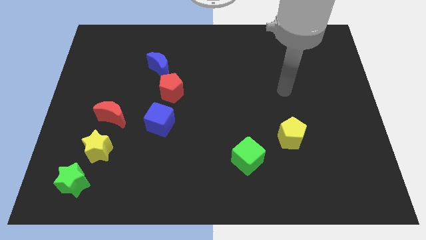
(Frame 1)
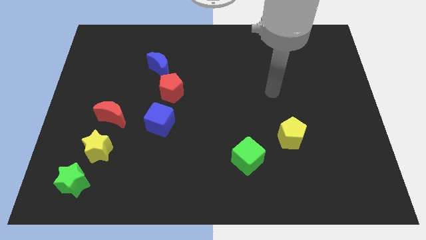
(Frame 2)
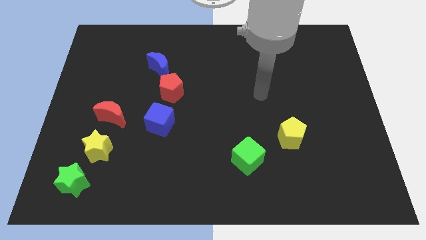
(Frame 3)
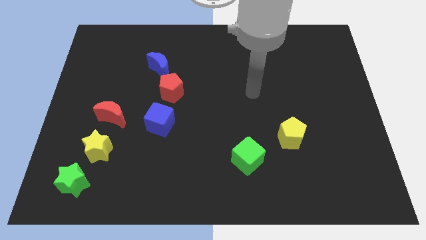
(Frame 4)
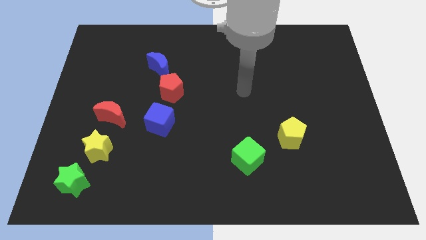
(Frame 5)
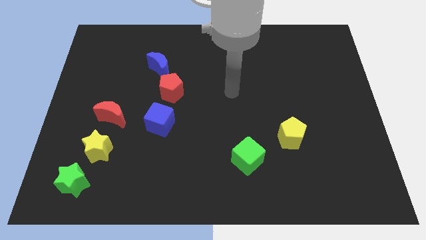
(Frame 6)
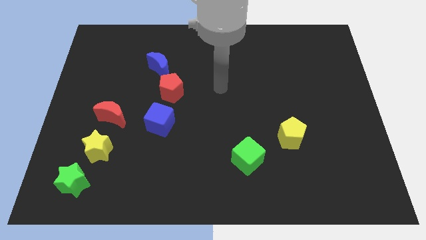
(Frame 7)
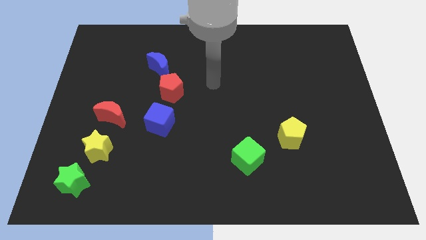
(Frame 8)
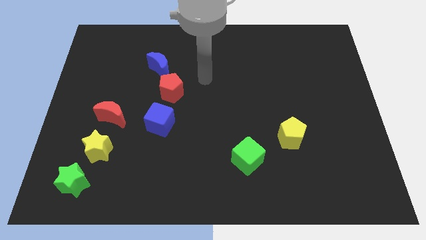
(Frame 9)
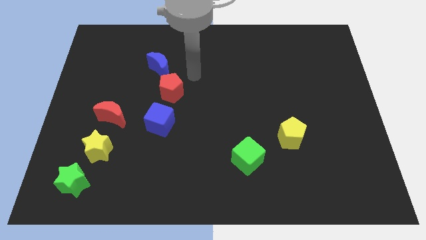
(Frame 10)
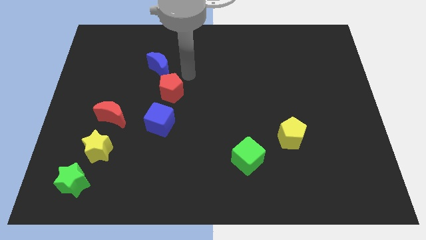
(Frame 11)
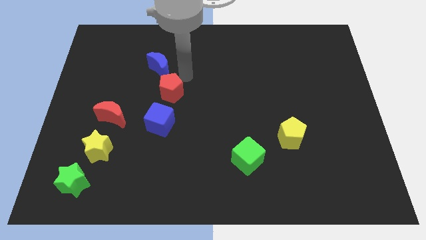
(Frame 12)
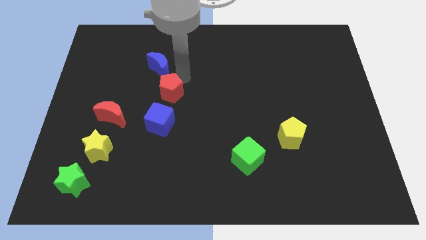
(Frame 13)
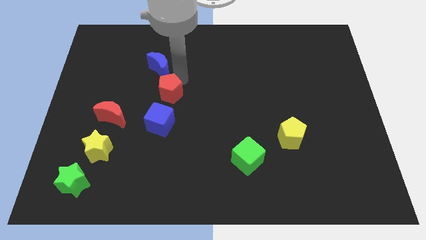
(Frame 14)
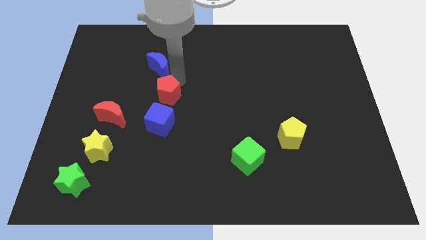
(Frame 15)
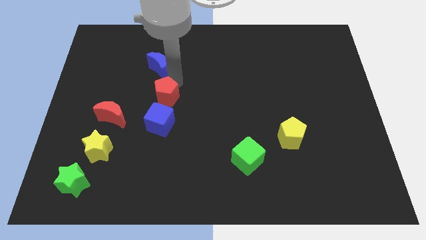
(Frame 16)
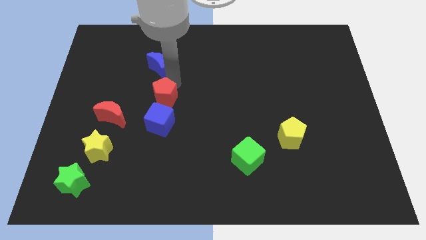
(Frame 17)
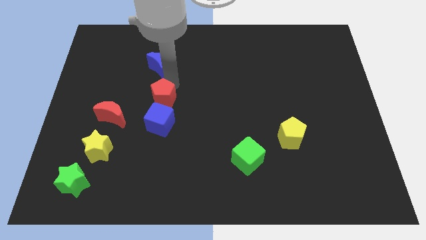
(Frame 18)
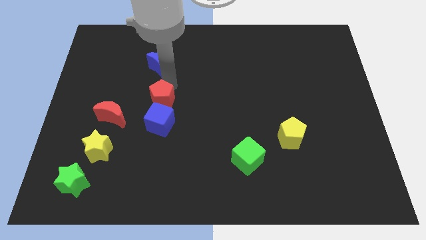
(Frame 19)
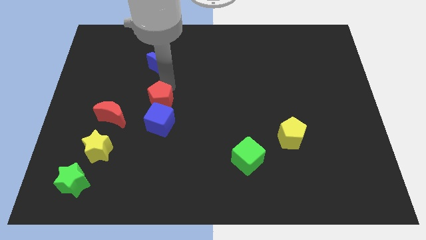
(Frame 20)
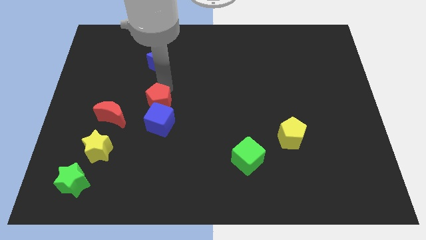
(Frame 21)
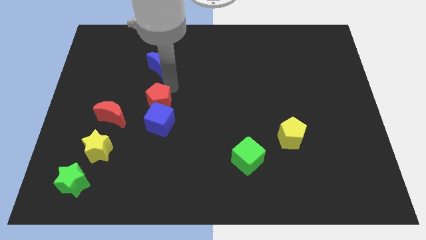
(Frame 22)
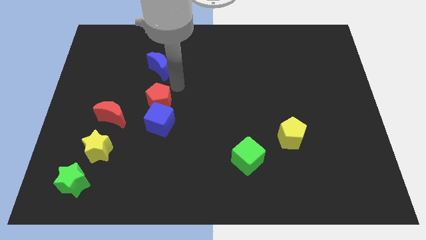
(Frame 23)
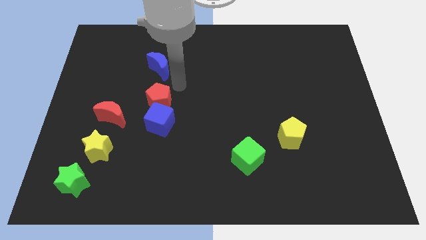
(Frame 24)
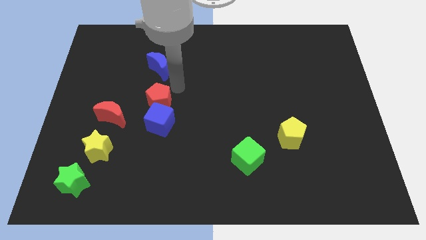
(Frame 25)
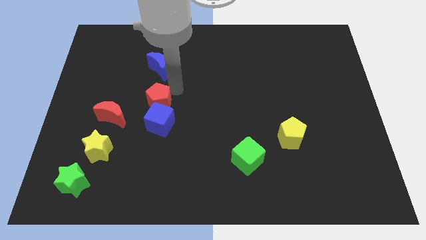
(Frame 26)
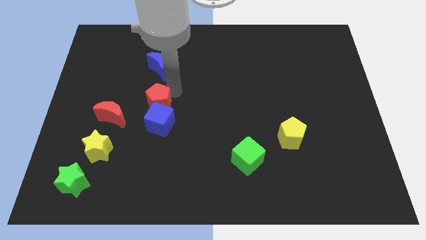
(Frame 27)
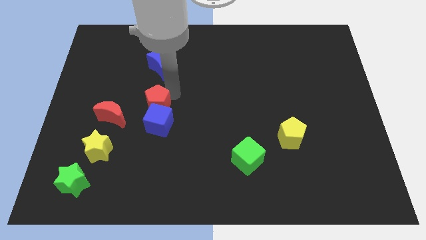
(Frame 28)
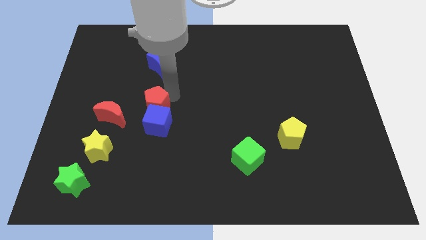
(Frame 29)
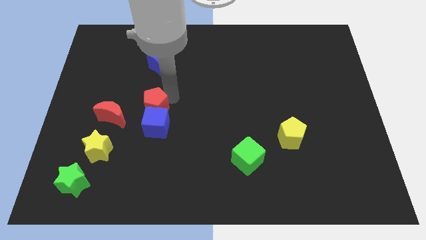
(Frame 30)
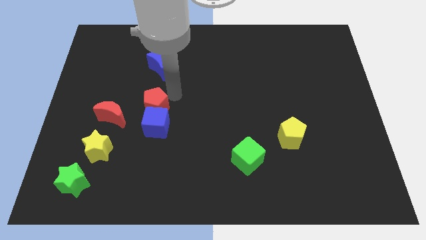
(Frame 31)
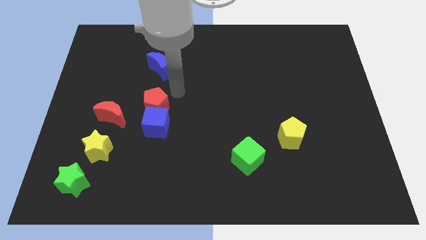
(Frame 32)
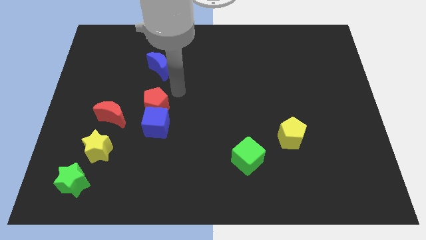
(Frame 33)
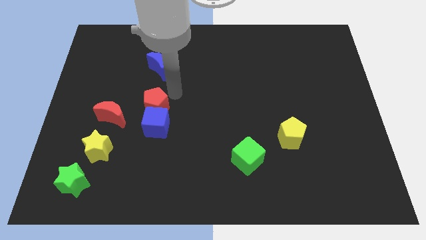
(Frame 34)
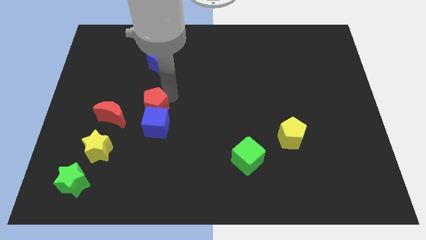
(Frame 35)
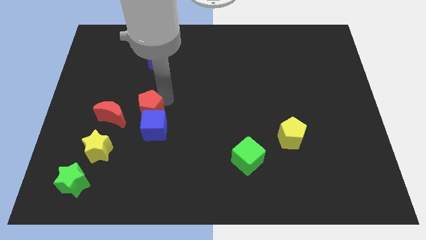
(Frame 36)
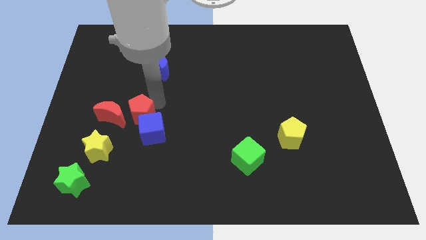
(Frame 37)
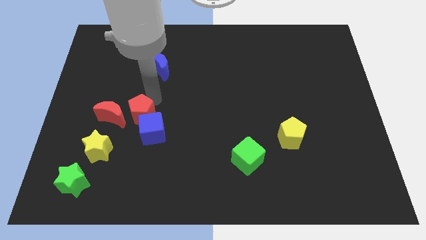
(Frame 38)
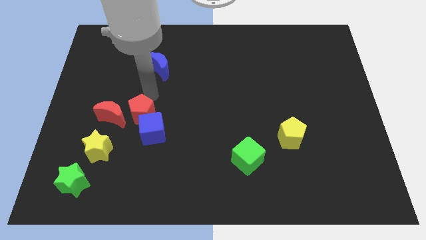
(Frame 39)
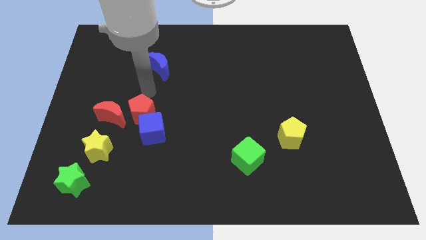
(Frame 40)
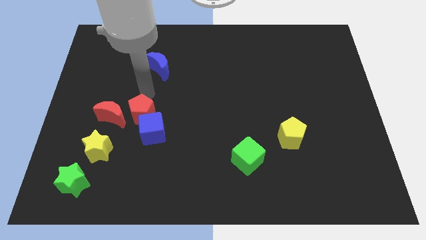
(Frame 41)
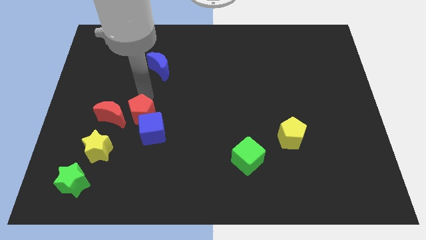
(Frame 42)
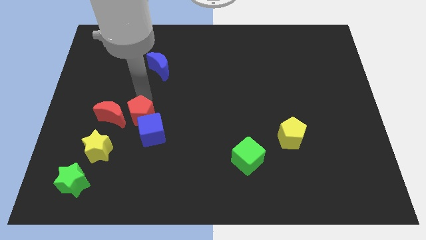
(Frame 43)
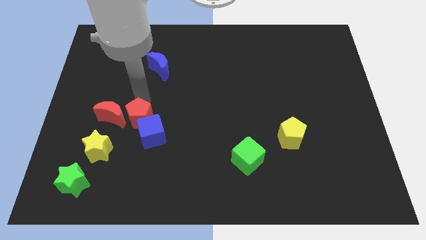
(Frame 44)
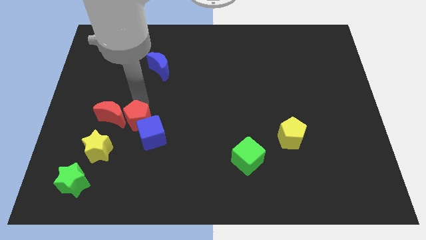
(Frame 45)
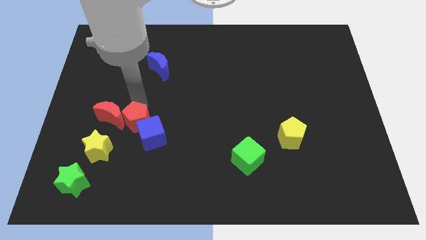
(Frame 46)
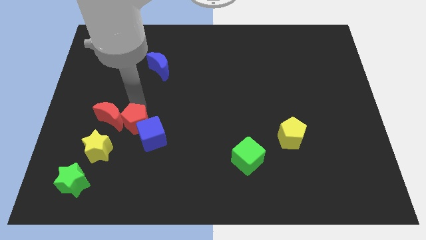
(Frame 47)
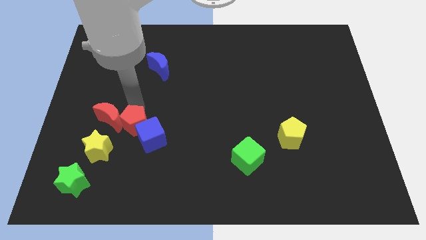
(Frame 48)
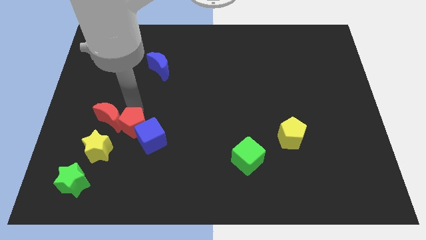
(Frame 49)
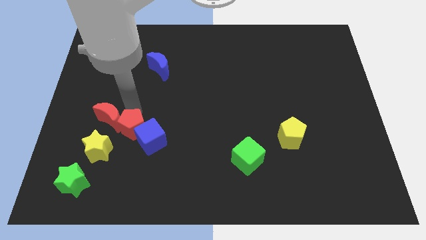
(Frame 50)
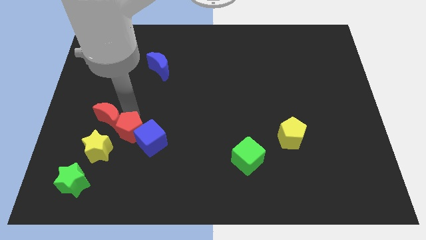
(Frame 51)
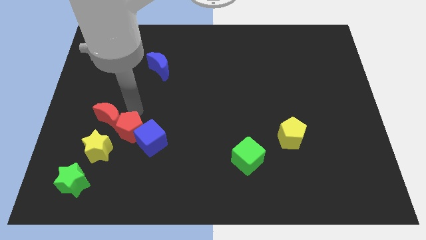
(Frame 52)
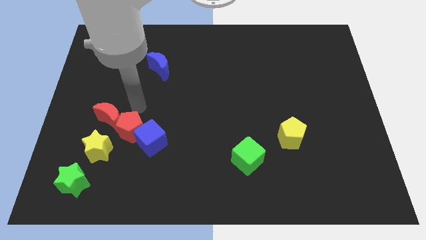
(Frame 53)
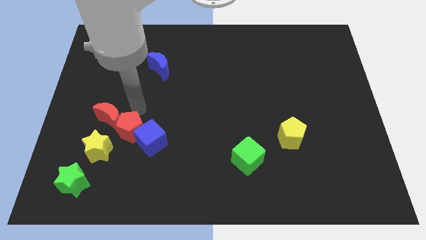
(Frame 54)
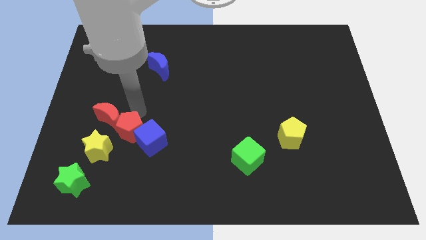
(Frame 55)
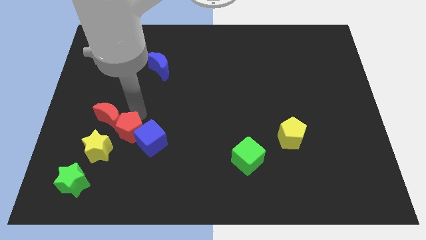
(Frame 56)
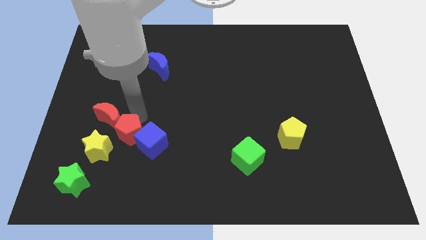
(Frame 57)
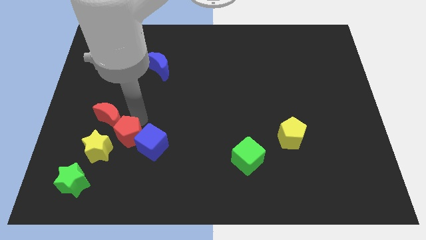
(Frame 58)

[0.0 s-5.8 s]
slide the red pentagon to the bottom of the red moon

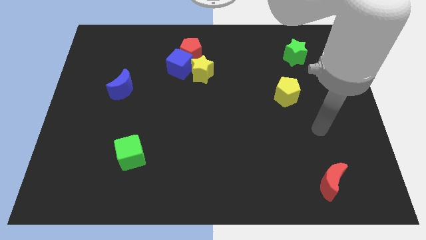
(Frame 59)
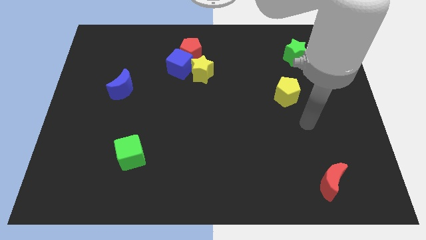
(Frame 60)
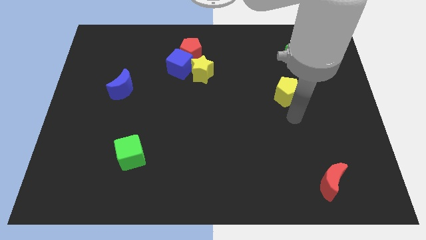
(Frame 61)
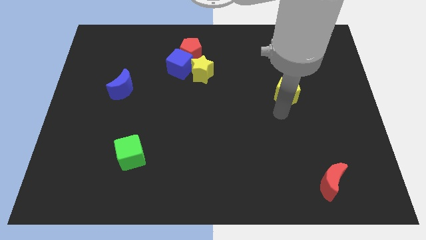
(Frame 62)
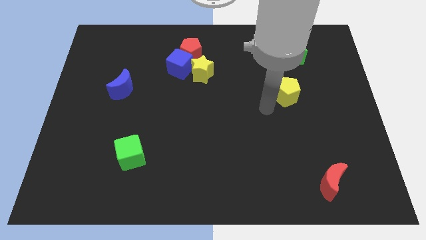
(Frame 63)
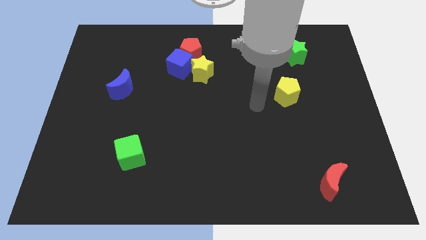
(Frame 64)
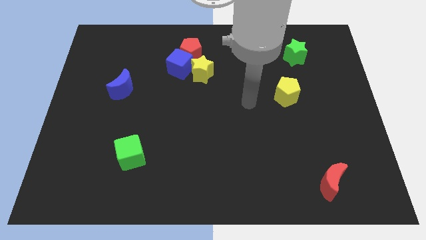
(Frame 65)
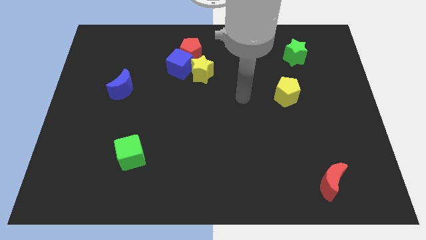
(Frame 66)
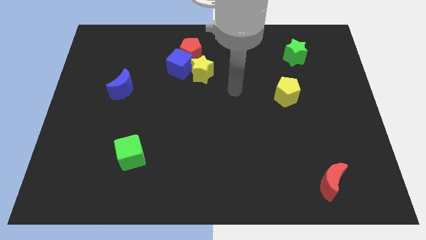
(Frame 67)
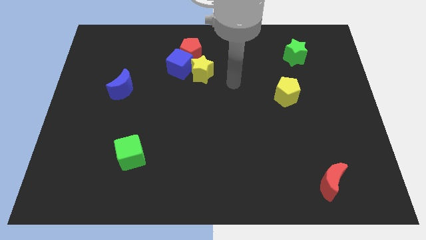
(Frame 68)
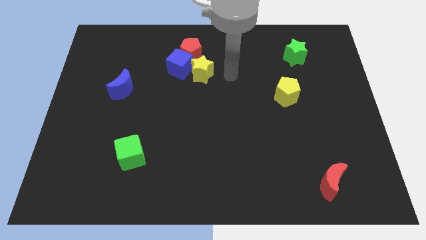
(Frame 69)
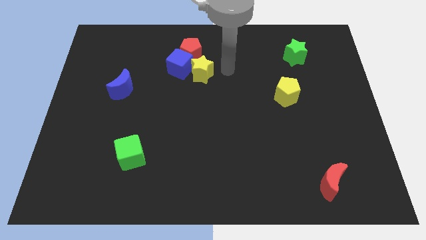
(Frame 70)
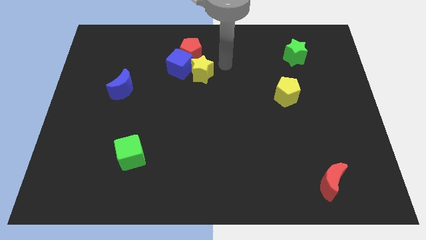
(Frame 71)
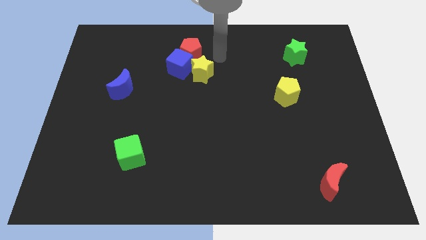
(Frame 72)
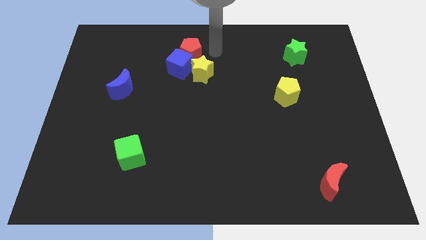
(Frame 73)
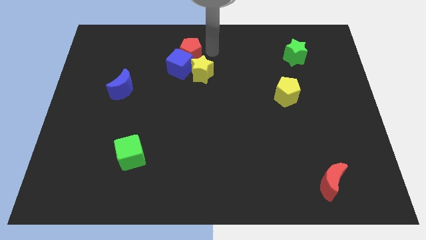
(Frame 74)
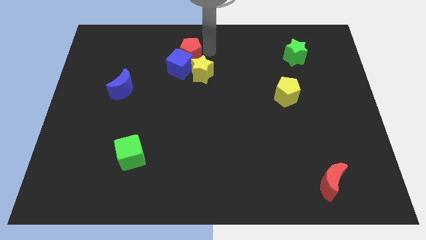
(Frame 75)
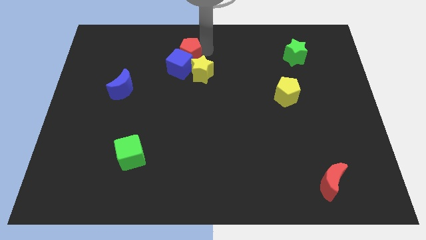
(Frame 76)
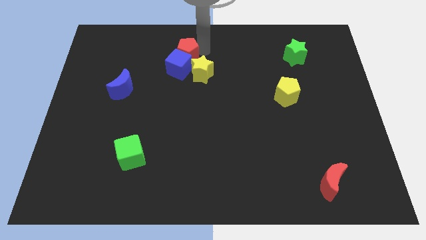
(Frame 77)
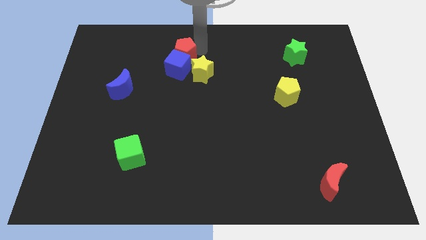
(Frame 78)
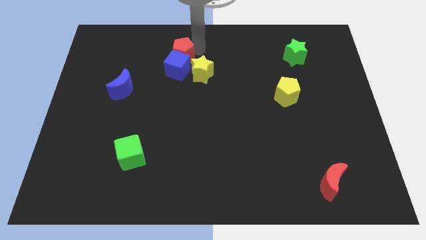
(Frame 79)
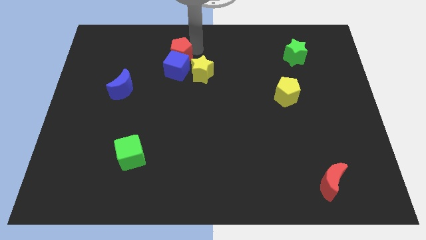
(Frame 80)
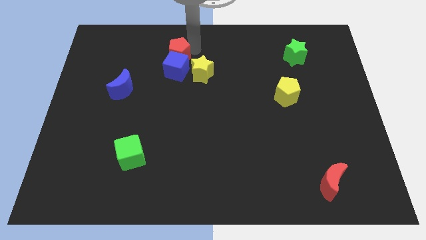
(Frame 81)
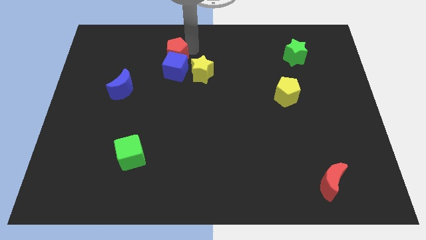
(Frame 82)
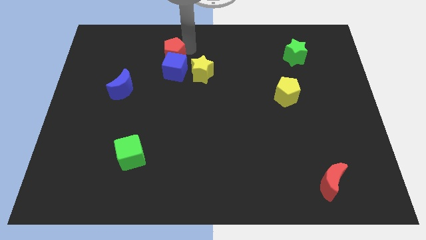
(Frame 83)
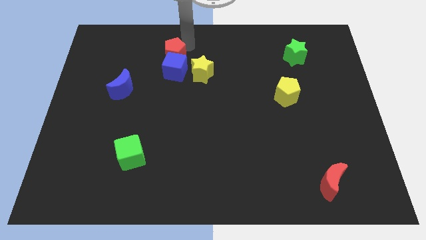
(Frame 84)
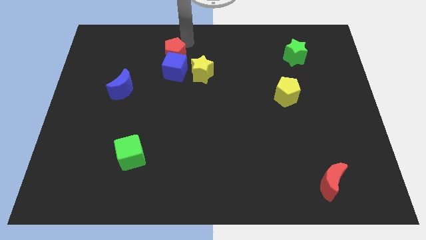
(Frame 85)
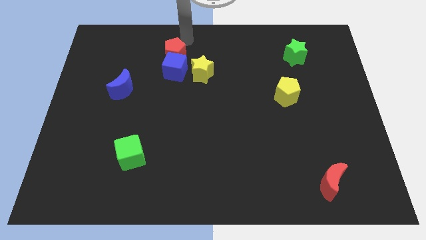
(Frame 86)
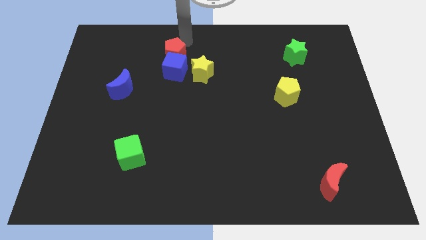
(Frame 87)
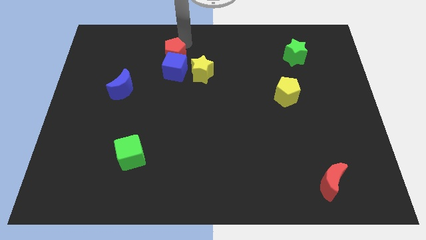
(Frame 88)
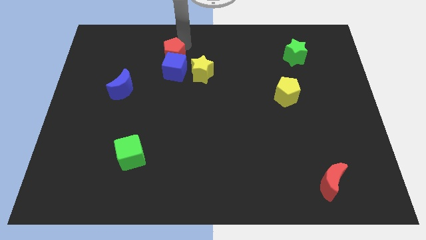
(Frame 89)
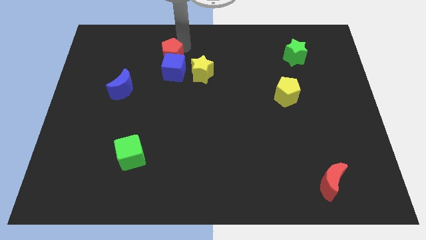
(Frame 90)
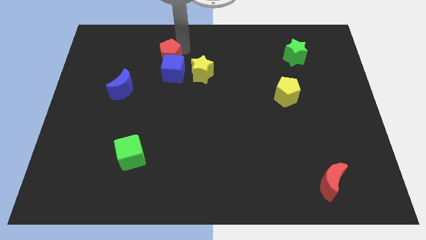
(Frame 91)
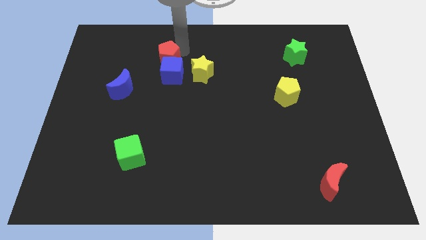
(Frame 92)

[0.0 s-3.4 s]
slide the red pentagon to the left side of the yellow star
